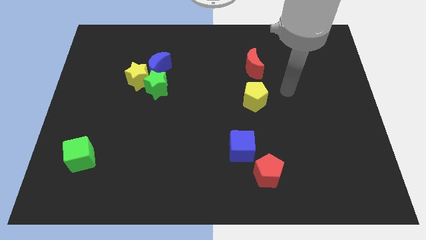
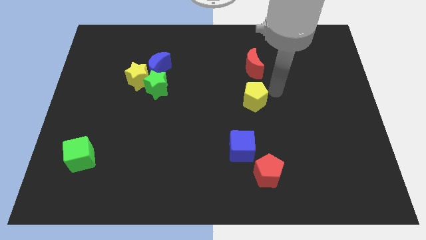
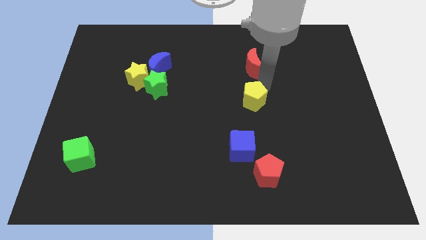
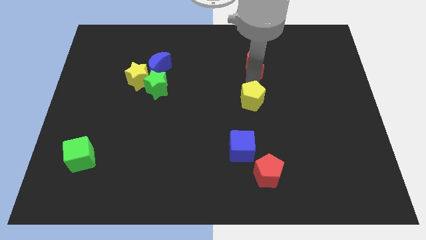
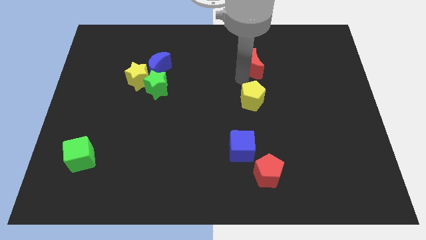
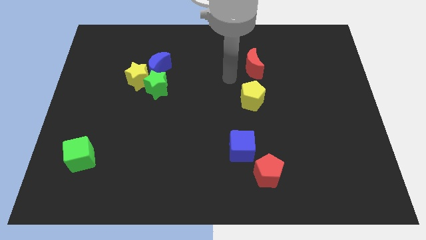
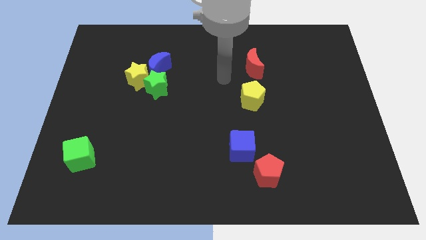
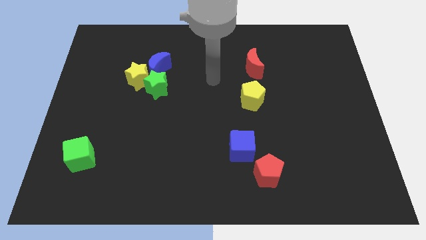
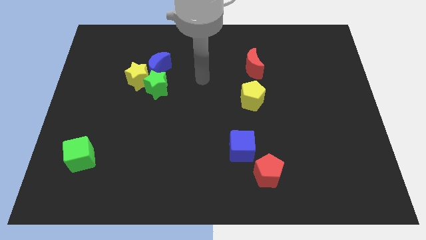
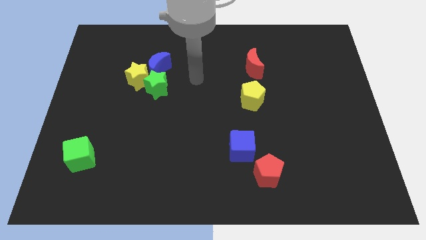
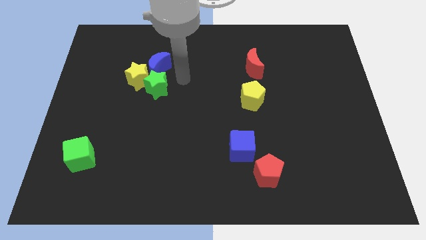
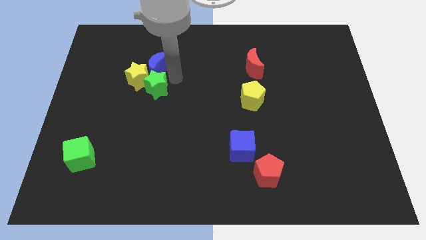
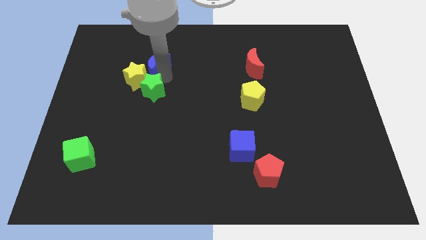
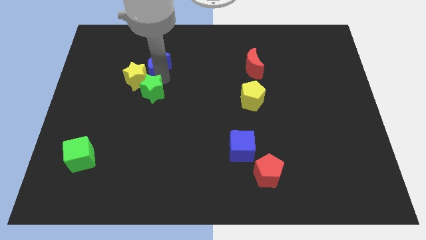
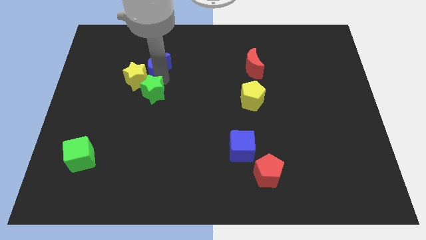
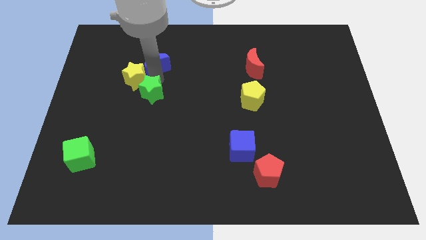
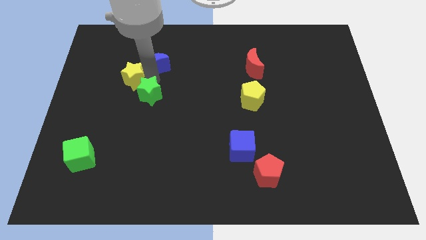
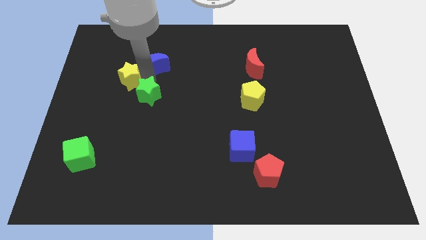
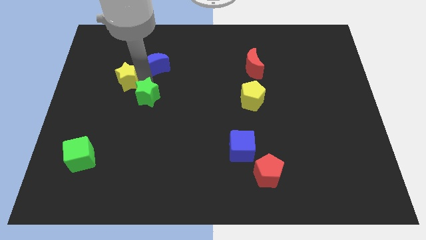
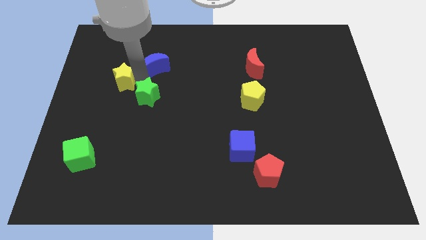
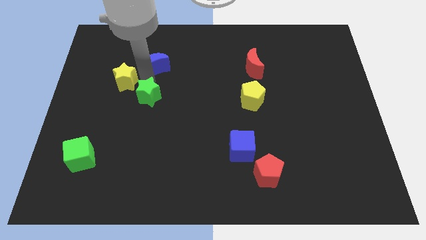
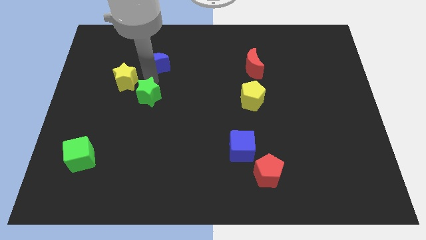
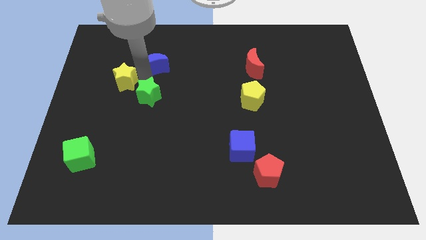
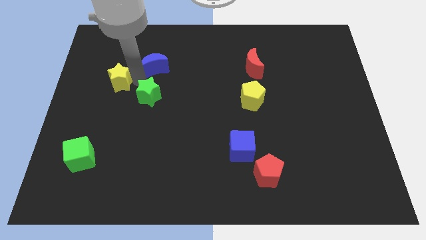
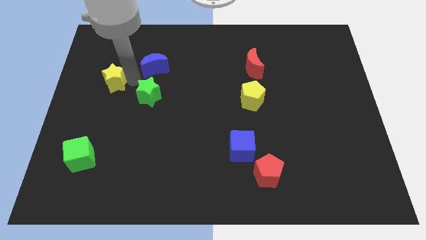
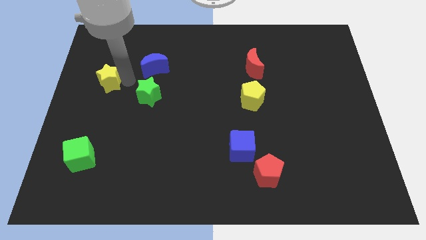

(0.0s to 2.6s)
separate the yellow star from the green star and blue moon

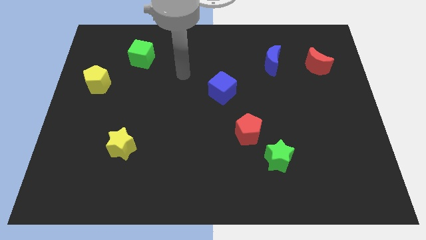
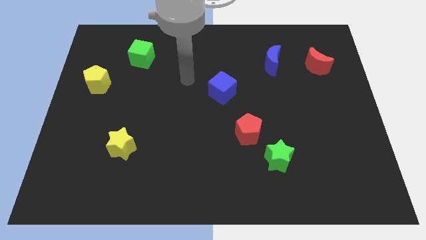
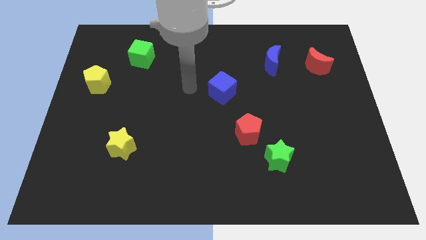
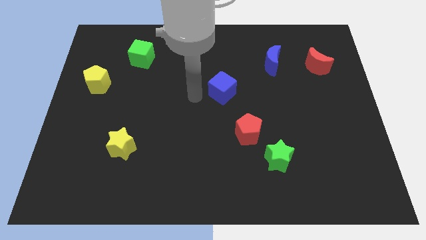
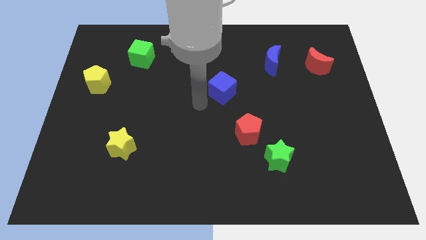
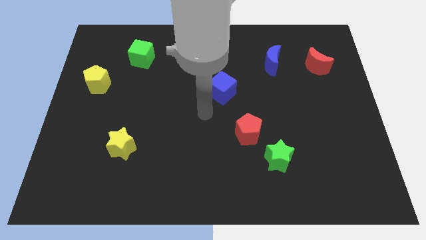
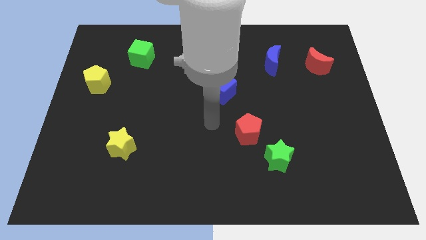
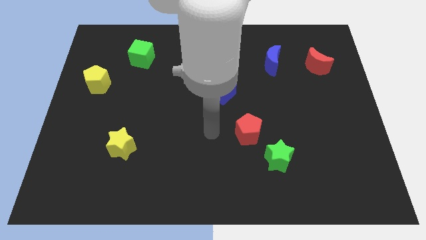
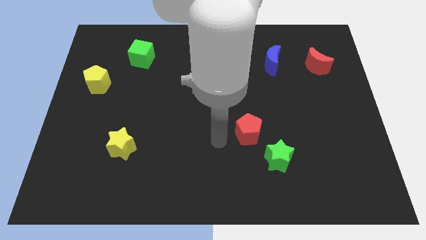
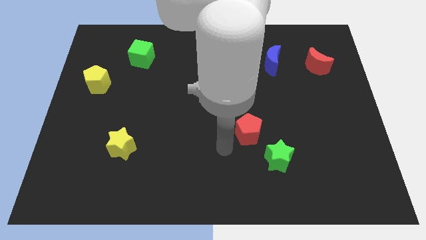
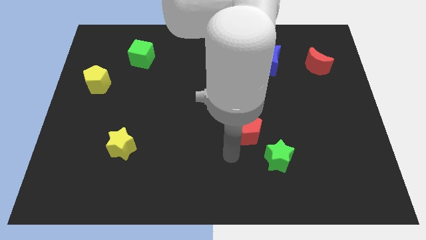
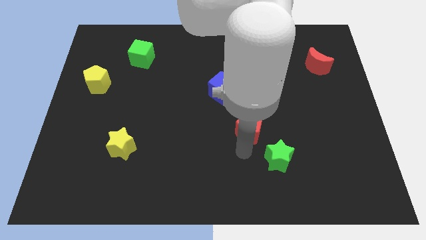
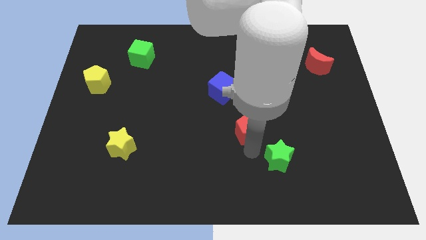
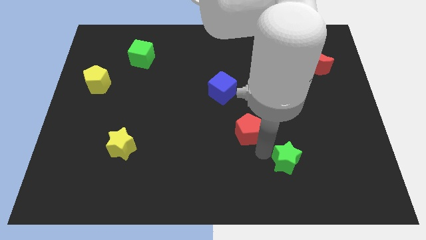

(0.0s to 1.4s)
pull the red pentagon apart from the green star

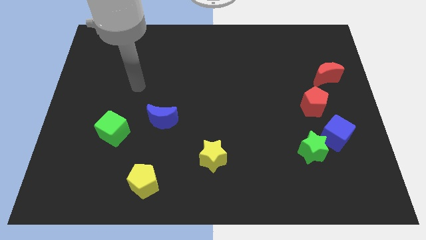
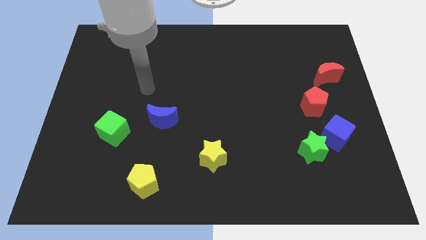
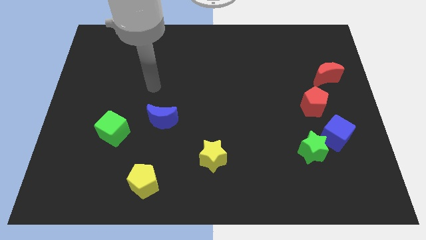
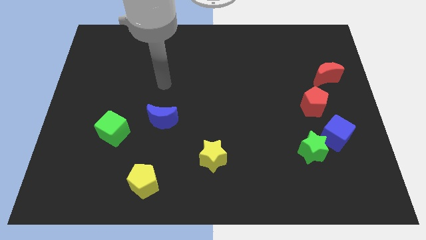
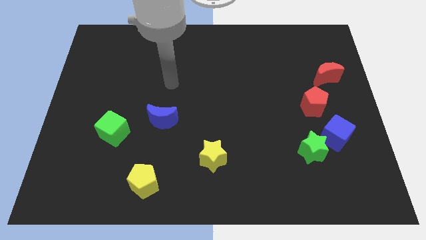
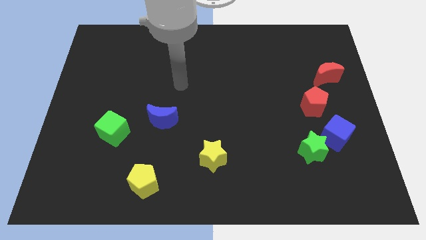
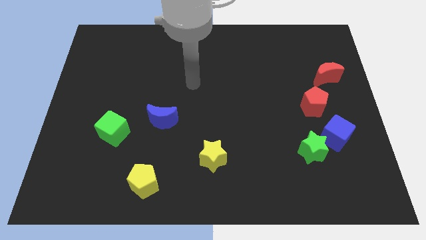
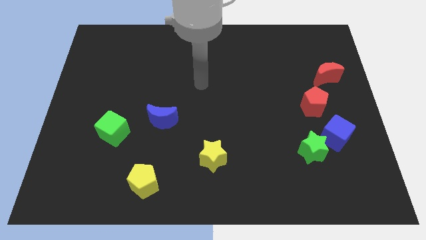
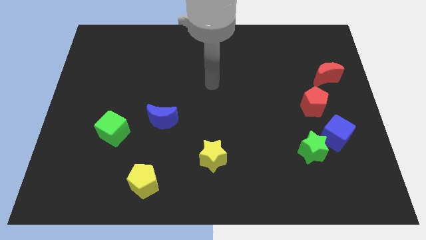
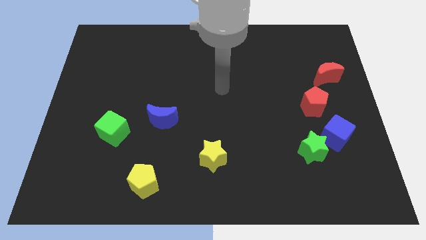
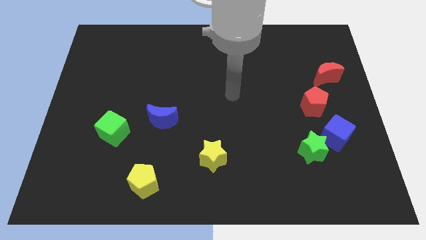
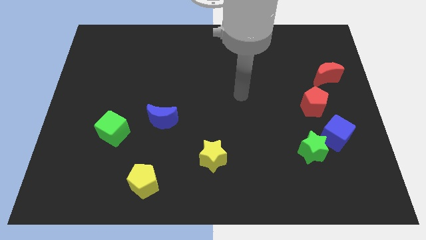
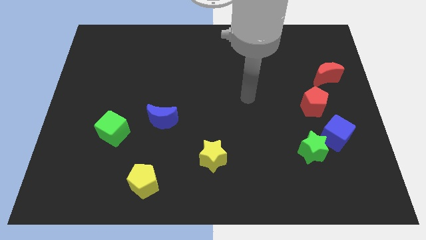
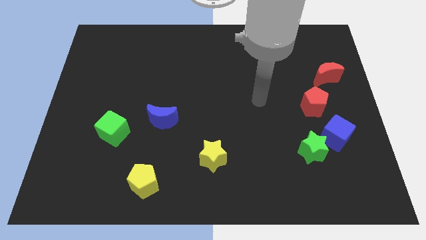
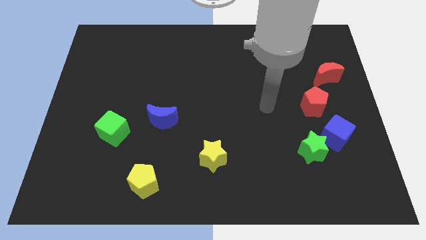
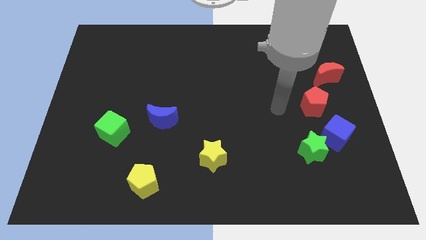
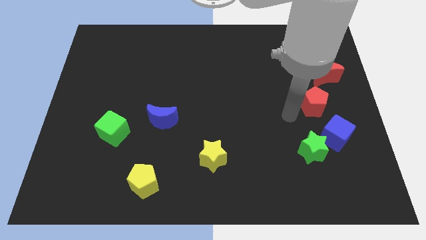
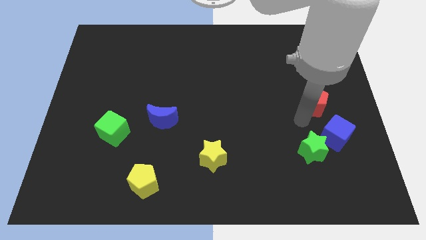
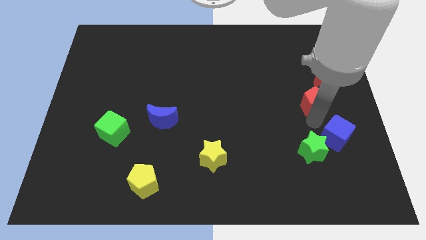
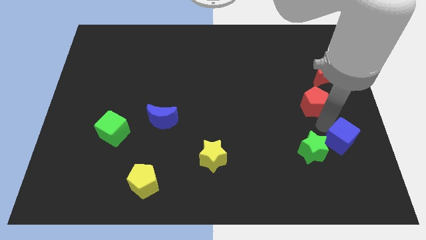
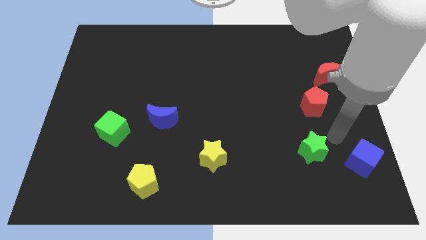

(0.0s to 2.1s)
move the green star away from the blue cube

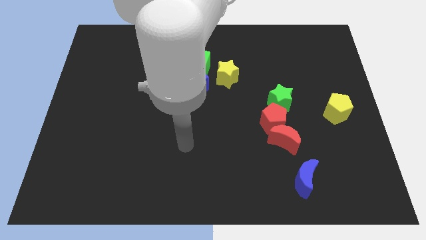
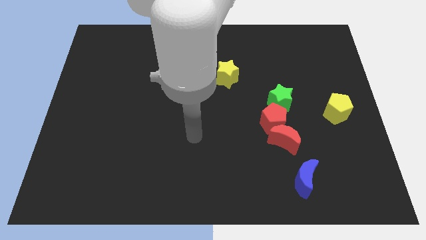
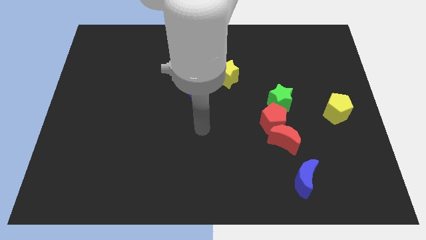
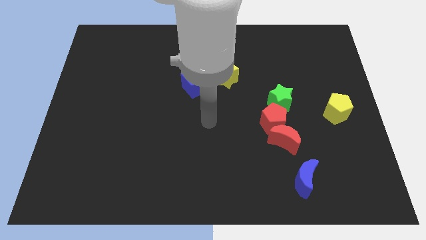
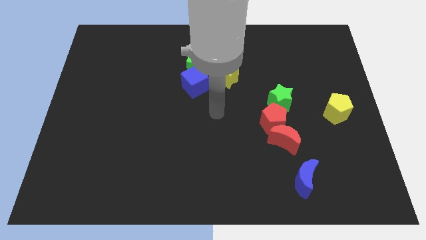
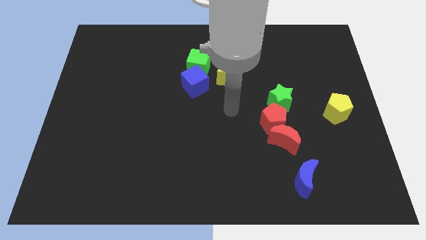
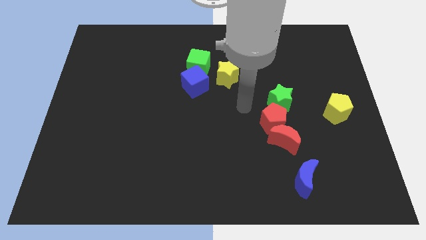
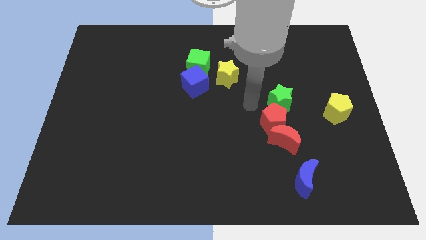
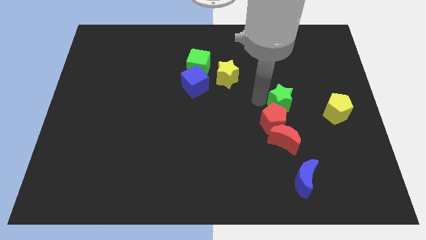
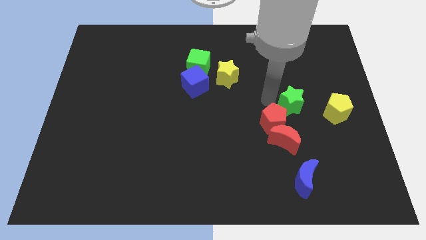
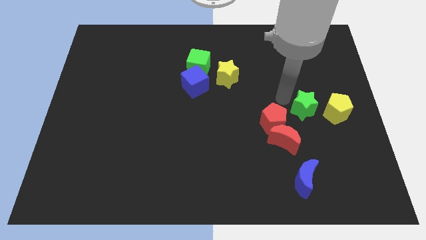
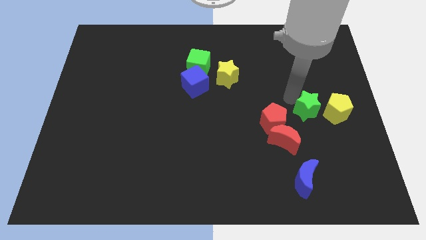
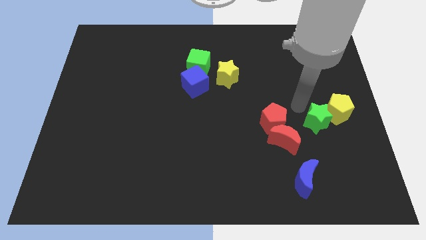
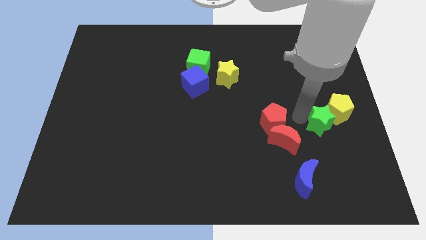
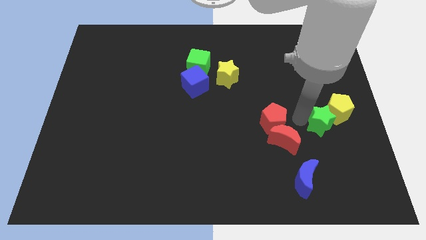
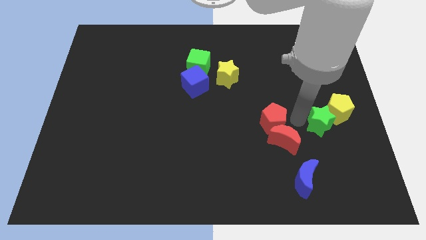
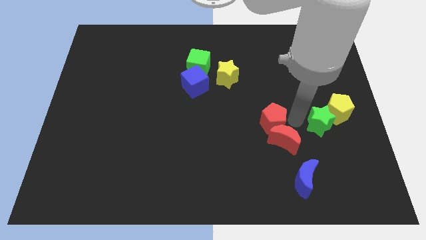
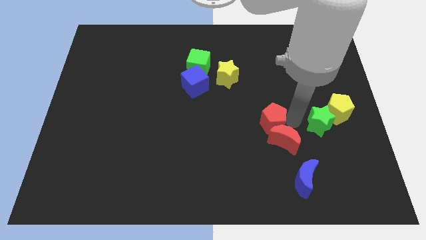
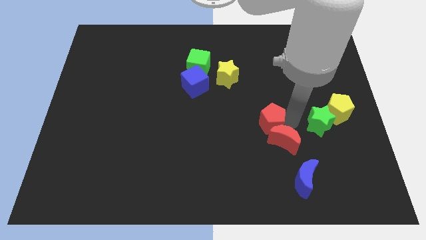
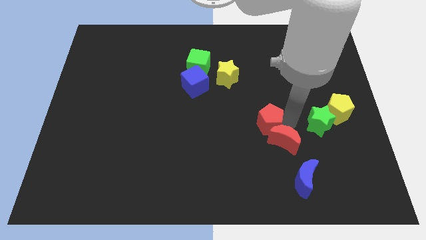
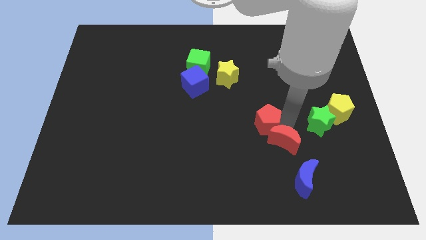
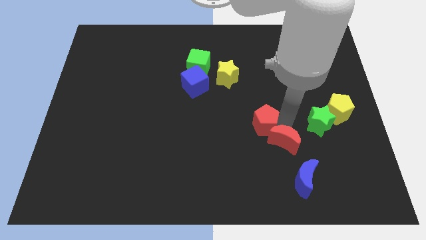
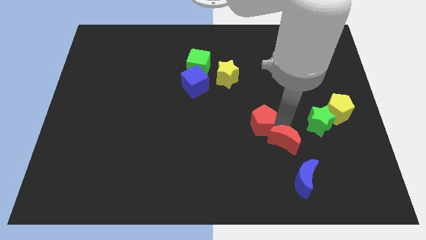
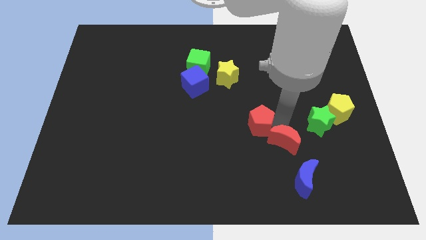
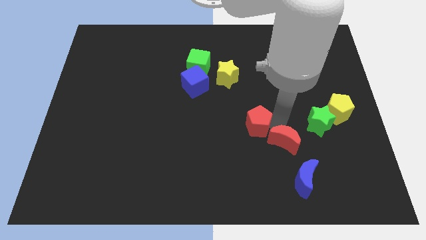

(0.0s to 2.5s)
move the red pentagon away from the red moon and green star

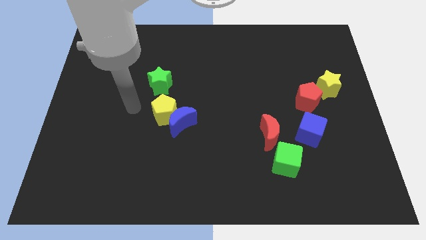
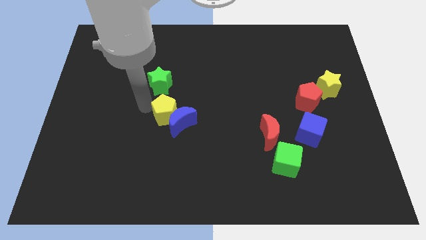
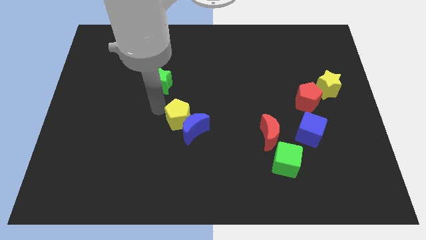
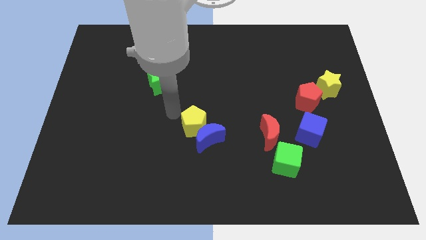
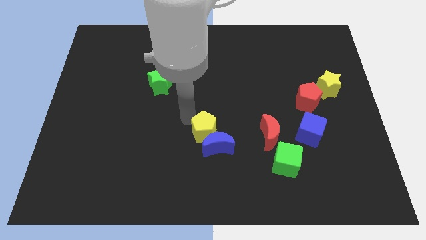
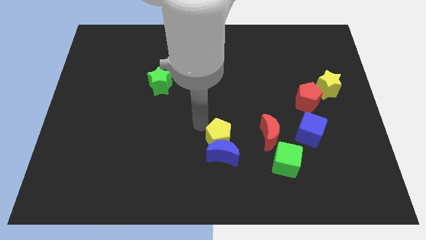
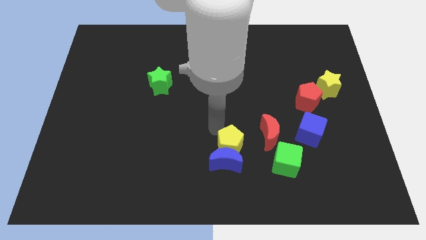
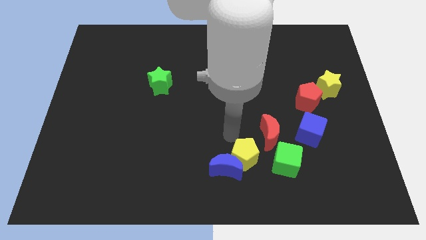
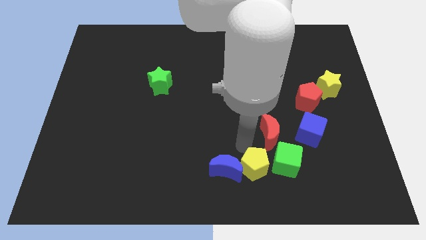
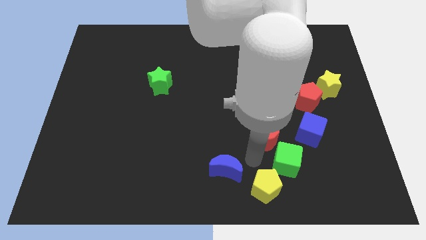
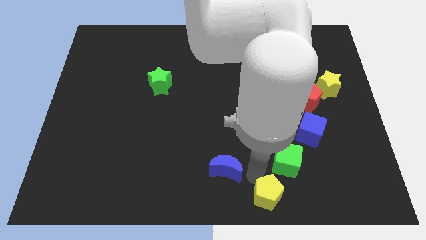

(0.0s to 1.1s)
pull the blue moon apart from the yellow pentagon
